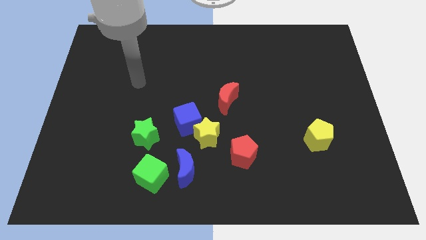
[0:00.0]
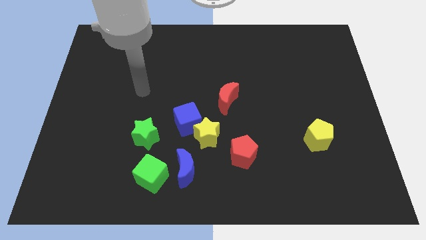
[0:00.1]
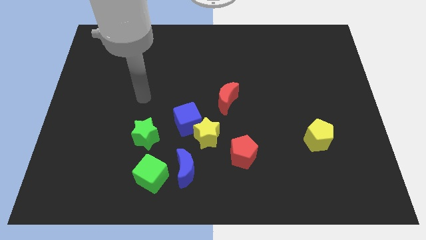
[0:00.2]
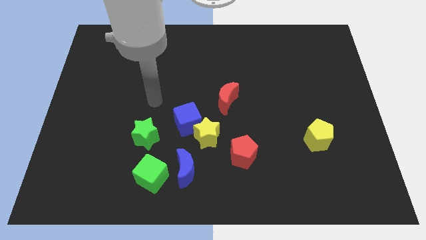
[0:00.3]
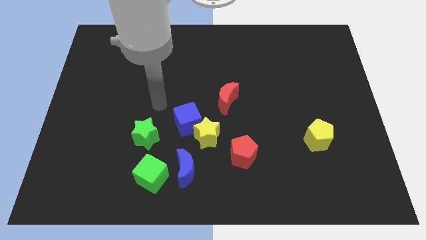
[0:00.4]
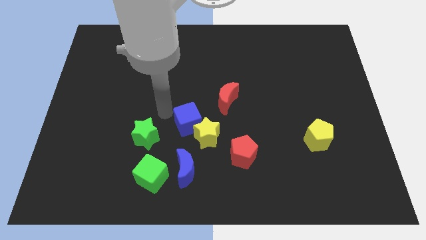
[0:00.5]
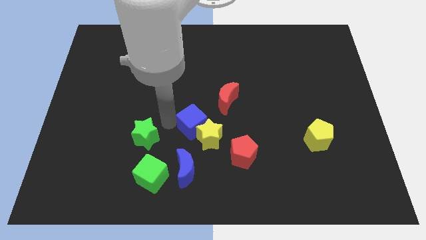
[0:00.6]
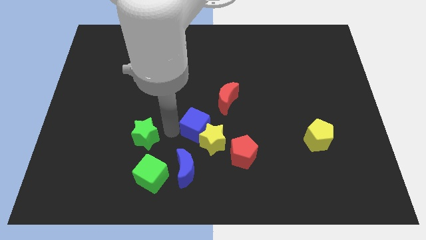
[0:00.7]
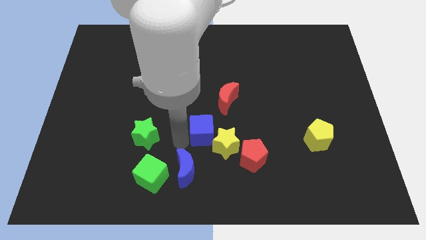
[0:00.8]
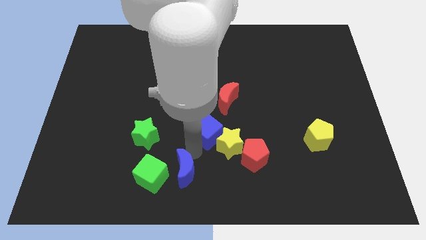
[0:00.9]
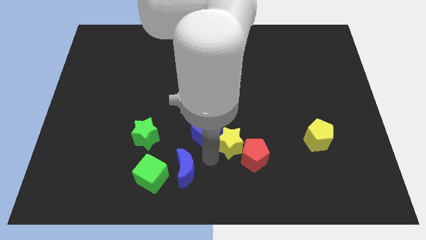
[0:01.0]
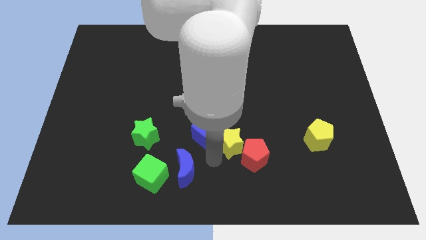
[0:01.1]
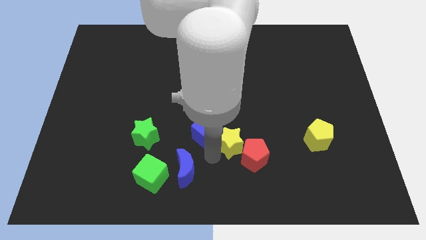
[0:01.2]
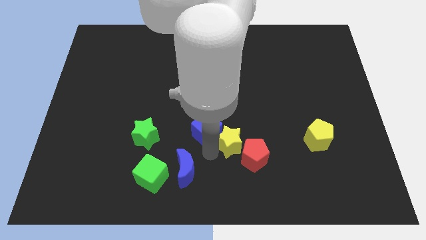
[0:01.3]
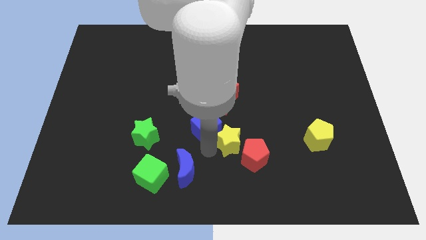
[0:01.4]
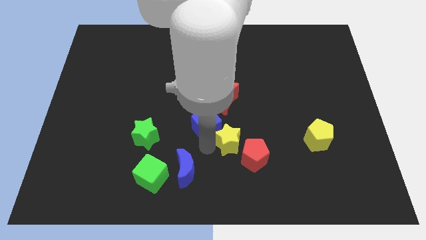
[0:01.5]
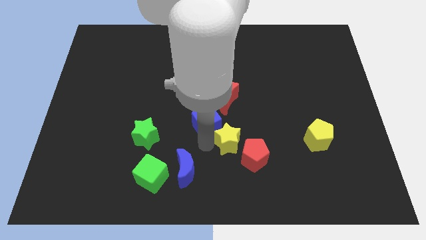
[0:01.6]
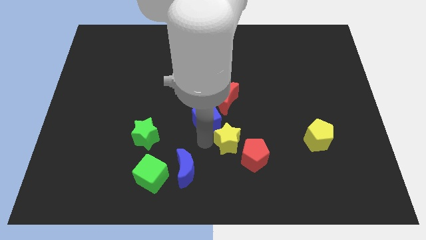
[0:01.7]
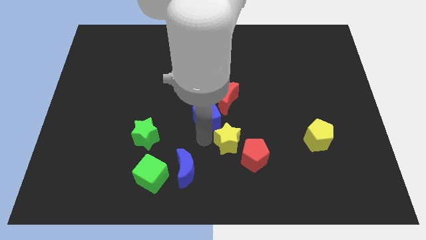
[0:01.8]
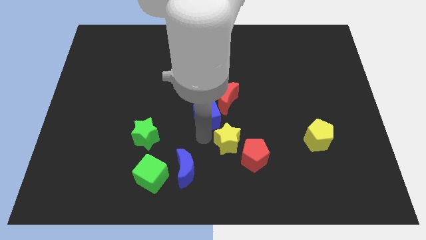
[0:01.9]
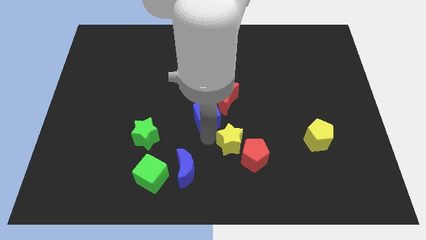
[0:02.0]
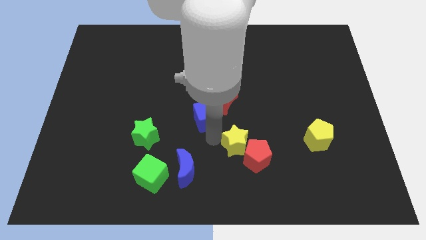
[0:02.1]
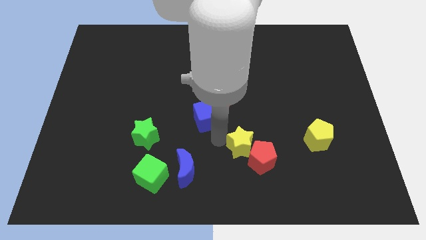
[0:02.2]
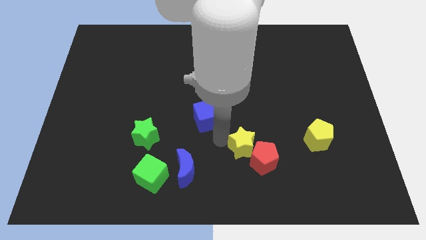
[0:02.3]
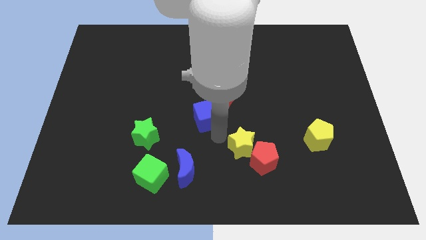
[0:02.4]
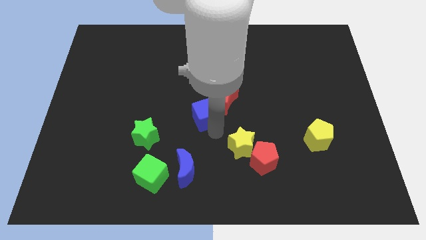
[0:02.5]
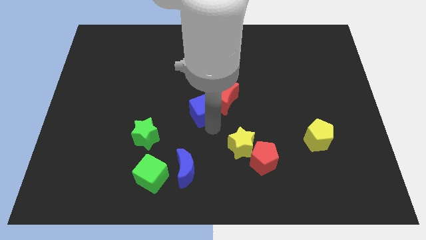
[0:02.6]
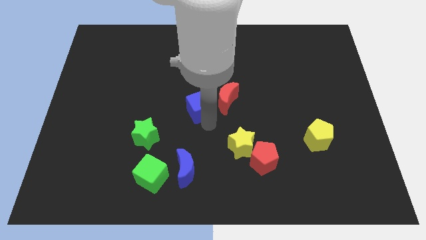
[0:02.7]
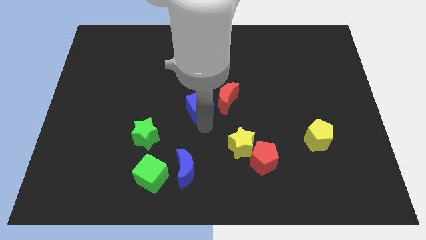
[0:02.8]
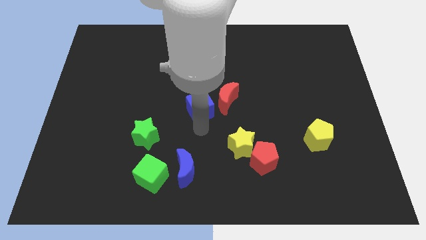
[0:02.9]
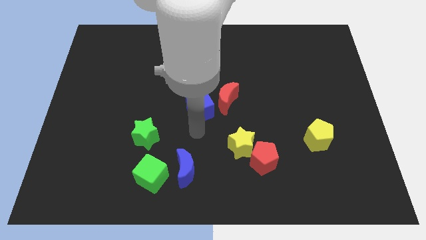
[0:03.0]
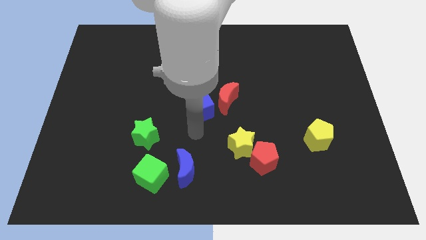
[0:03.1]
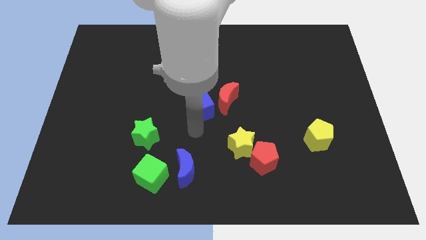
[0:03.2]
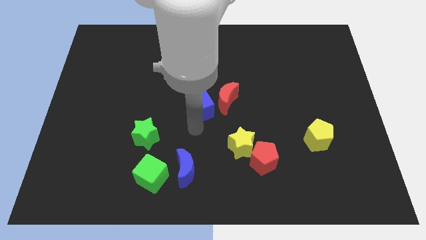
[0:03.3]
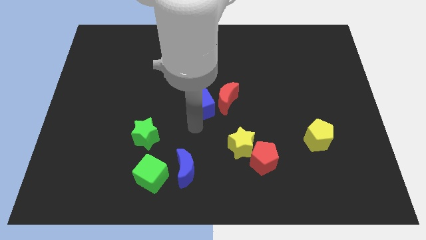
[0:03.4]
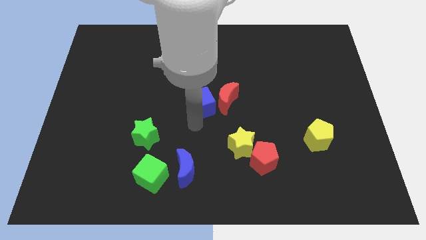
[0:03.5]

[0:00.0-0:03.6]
separate the blue cube from the yellow star and green star

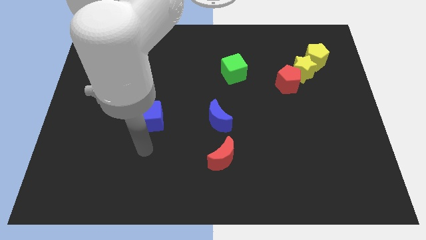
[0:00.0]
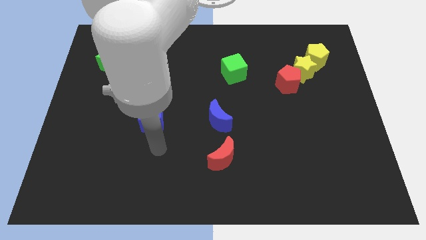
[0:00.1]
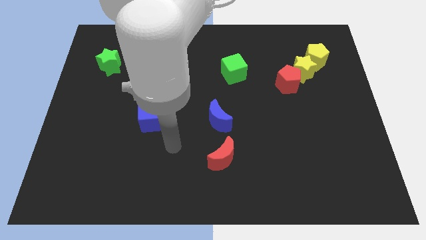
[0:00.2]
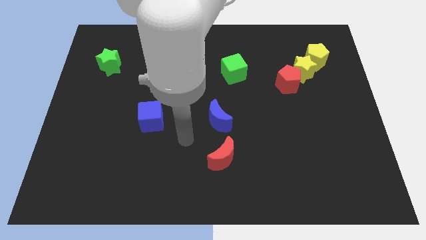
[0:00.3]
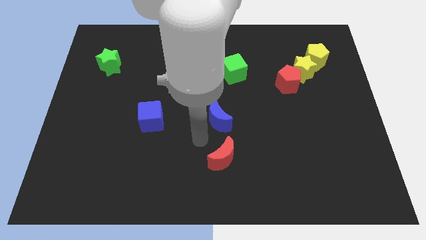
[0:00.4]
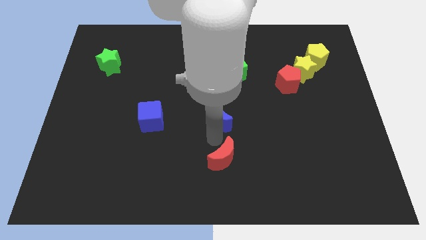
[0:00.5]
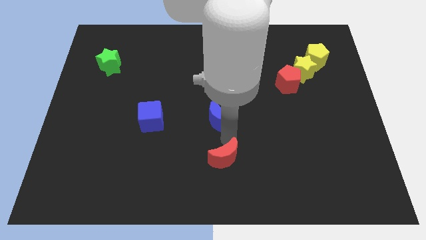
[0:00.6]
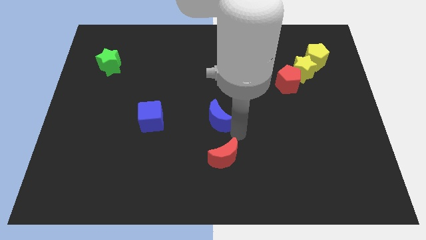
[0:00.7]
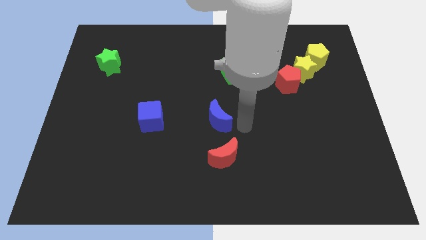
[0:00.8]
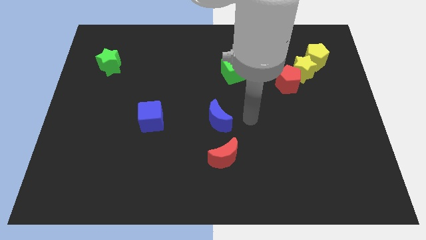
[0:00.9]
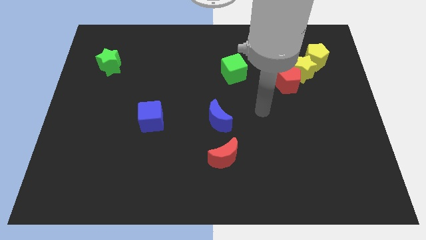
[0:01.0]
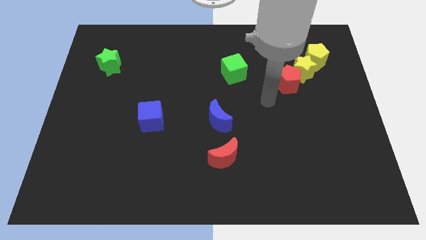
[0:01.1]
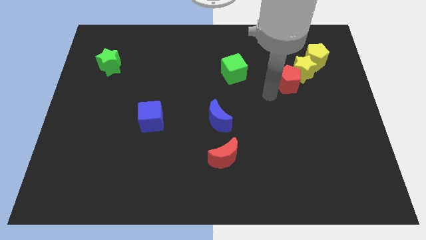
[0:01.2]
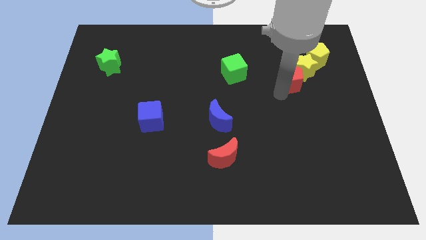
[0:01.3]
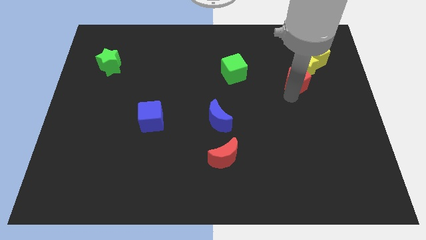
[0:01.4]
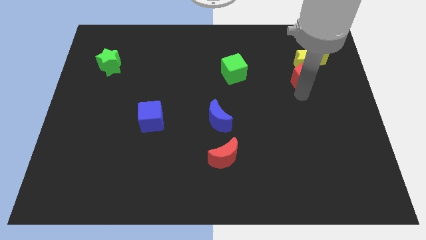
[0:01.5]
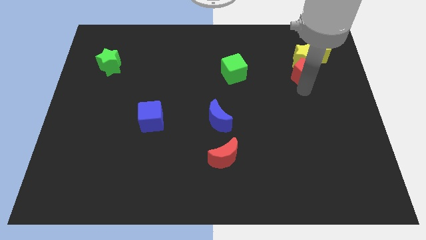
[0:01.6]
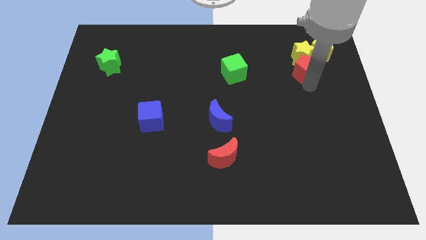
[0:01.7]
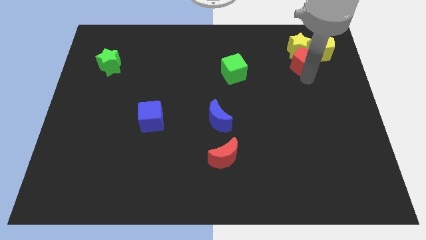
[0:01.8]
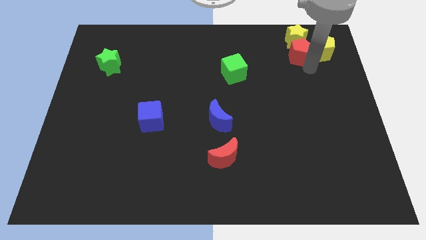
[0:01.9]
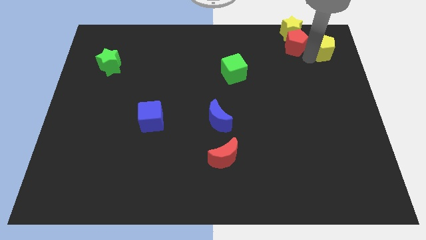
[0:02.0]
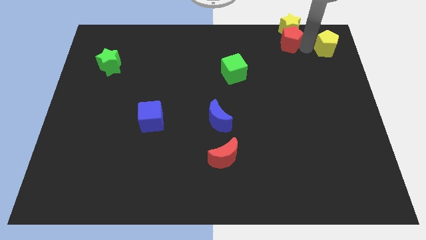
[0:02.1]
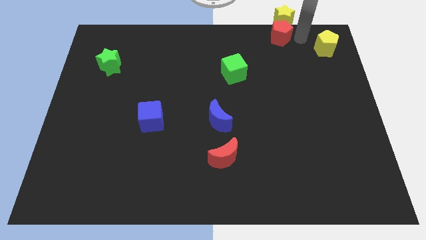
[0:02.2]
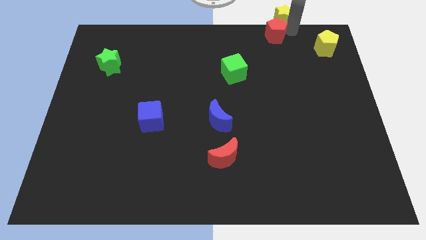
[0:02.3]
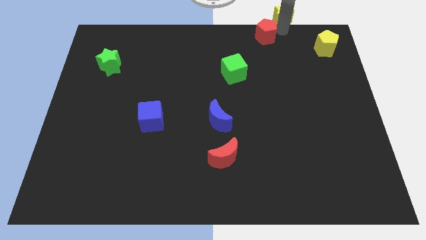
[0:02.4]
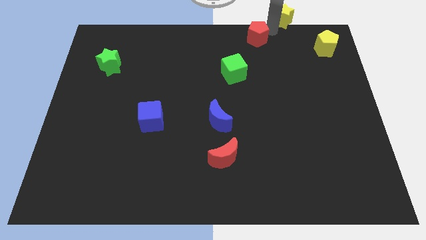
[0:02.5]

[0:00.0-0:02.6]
pull the red pentagon apart from the yellow star

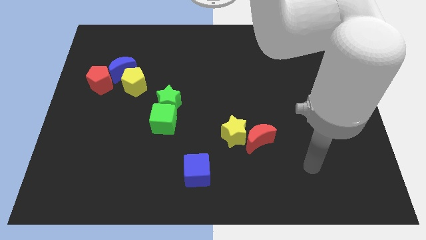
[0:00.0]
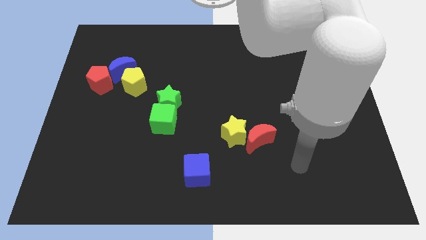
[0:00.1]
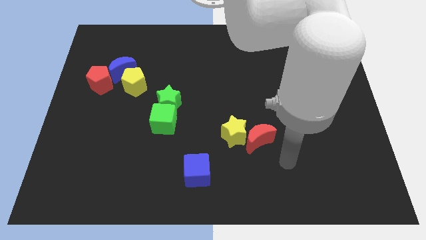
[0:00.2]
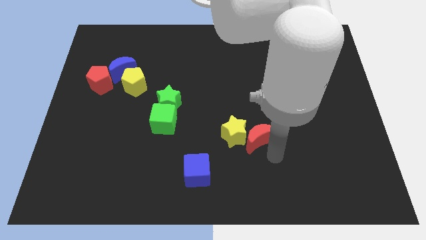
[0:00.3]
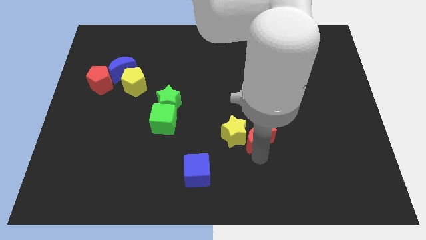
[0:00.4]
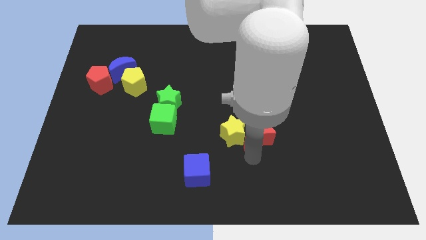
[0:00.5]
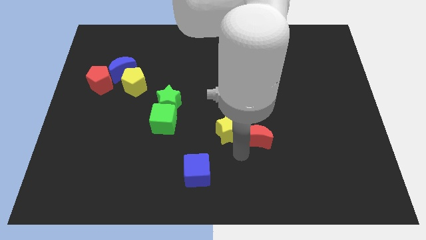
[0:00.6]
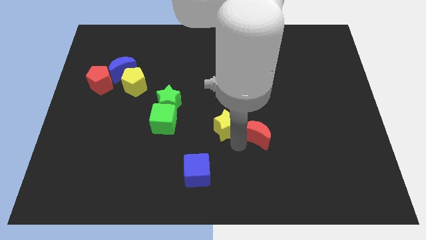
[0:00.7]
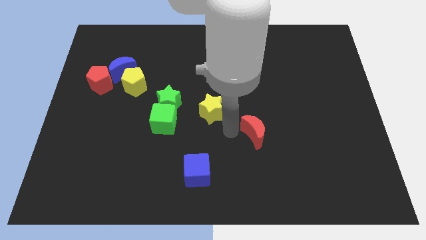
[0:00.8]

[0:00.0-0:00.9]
move the red moon away from the yellow star

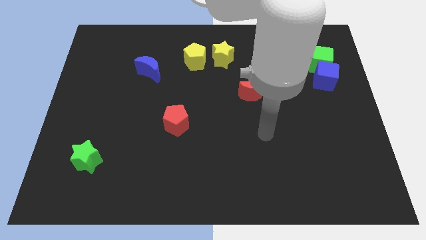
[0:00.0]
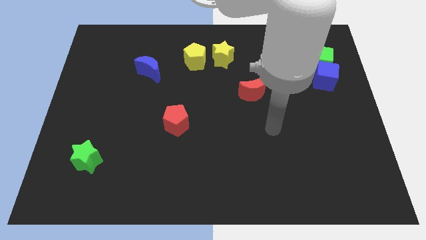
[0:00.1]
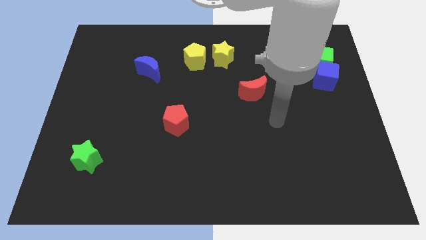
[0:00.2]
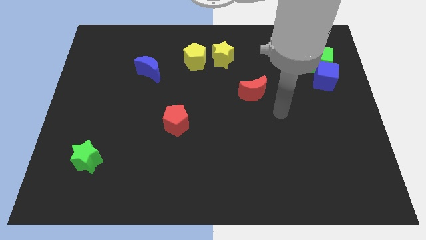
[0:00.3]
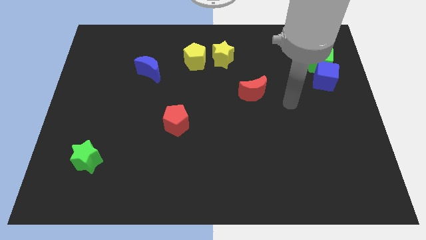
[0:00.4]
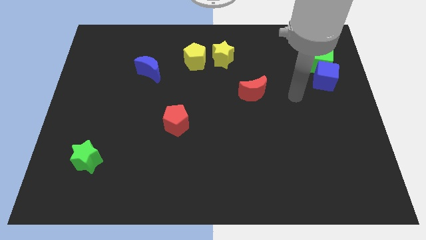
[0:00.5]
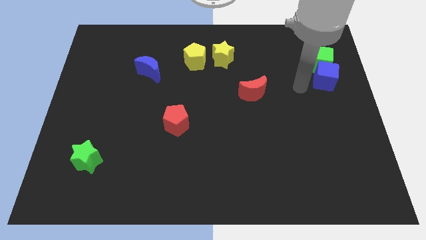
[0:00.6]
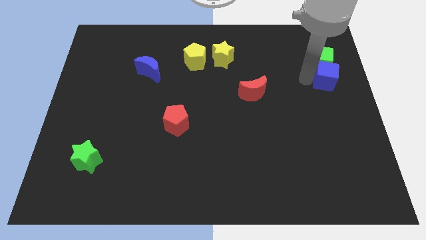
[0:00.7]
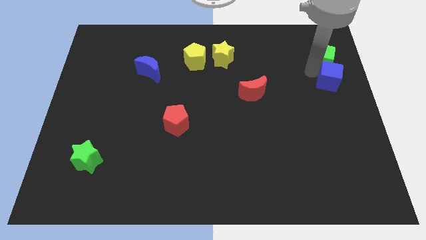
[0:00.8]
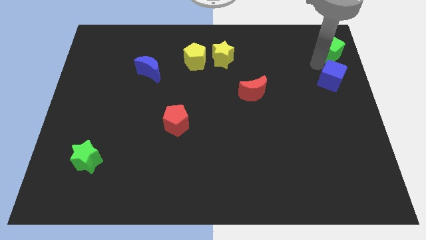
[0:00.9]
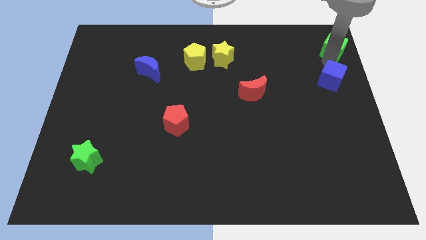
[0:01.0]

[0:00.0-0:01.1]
move the blue cube away from the green cube

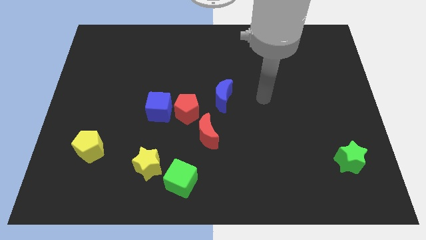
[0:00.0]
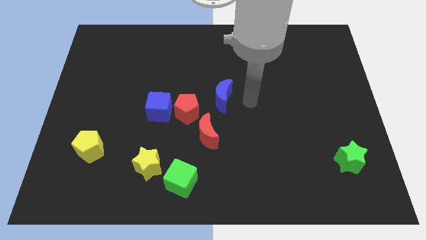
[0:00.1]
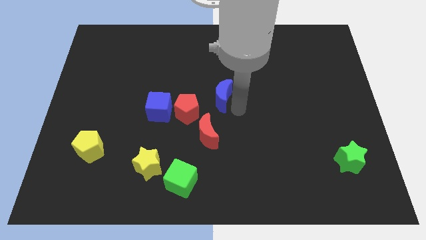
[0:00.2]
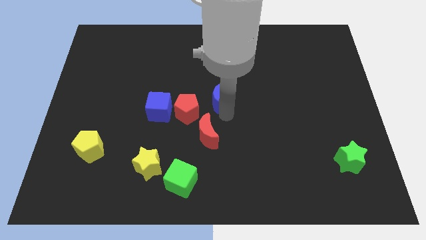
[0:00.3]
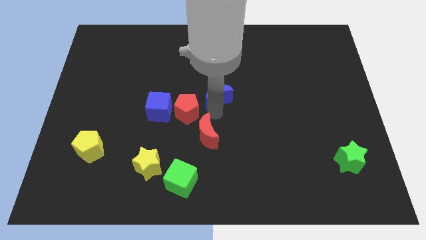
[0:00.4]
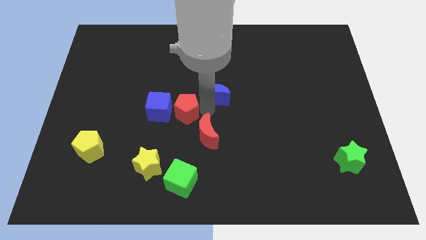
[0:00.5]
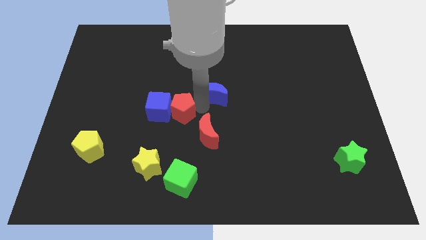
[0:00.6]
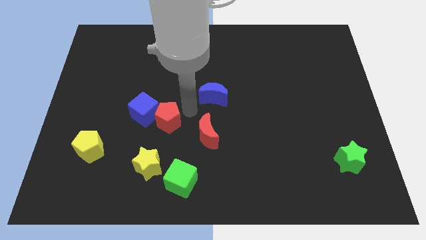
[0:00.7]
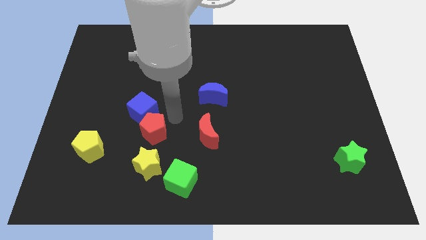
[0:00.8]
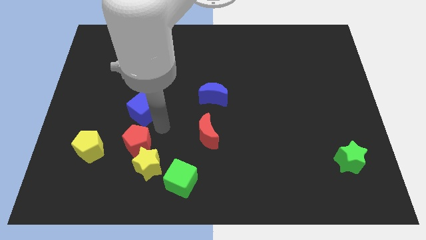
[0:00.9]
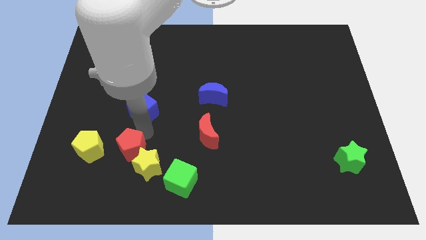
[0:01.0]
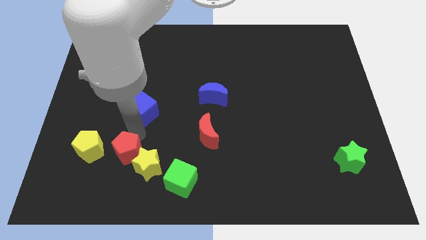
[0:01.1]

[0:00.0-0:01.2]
separate the blue cube from the red pentagon
